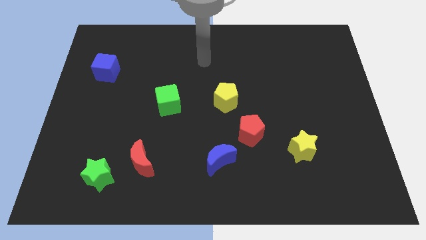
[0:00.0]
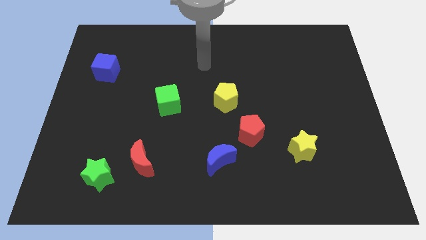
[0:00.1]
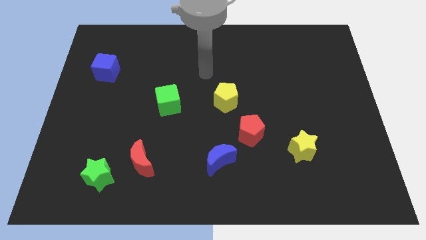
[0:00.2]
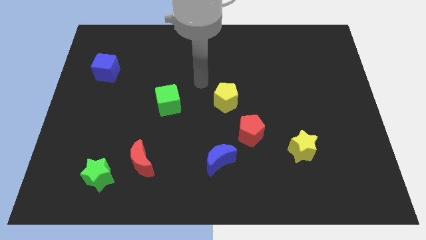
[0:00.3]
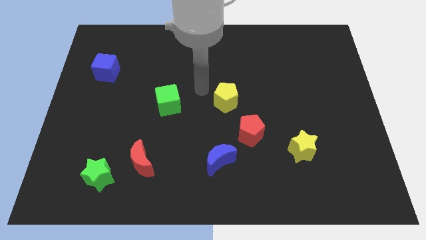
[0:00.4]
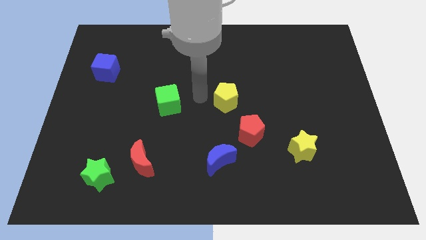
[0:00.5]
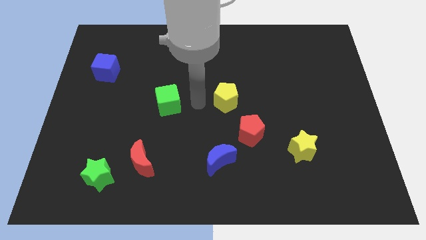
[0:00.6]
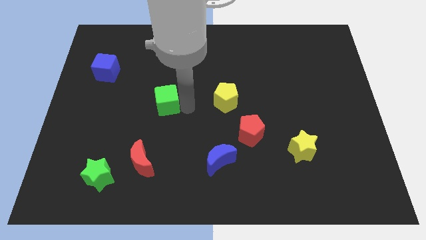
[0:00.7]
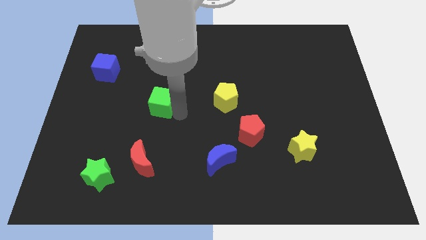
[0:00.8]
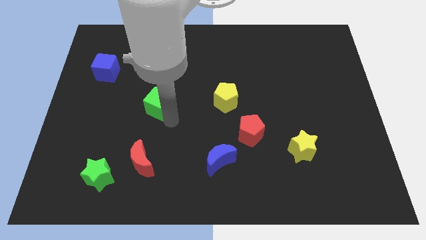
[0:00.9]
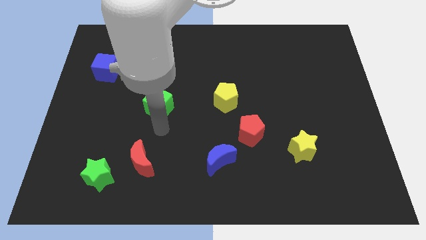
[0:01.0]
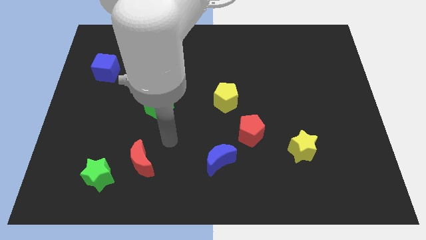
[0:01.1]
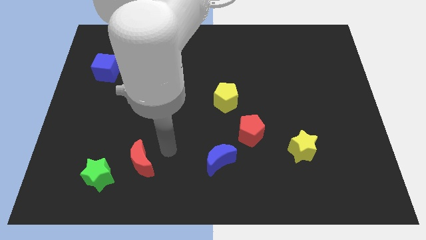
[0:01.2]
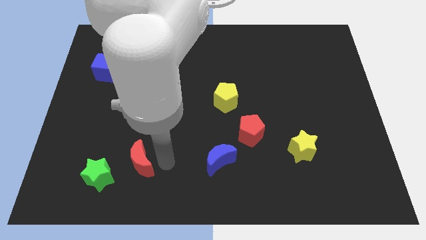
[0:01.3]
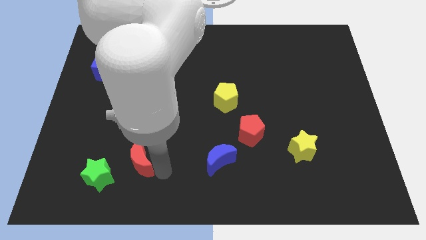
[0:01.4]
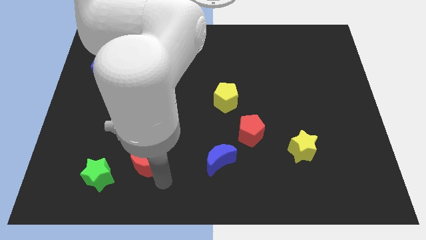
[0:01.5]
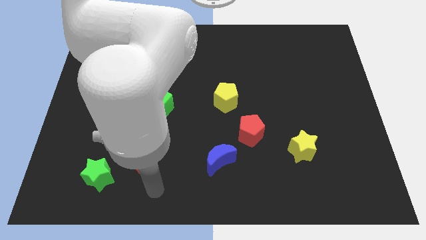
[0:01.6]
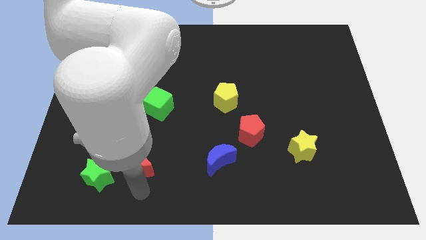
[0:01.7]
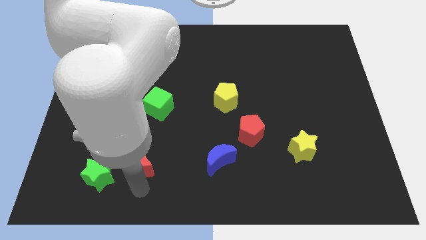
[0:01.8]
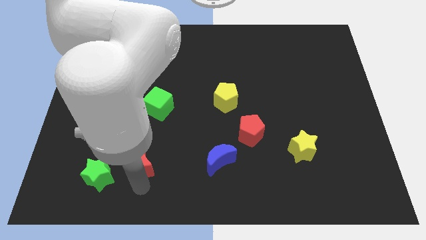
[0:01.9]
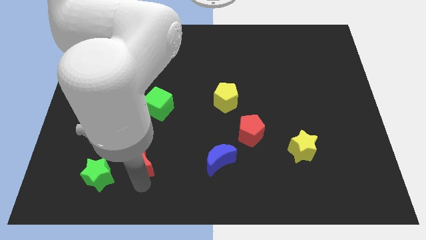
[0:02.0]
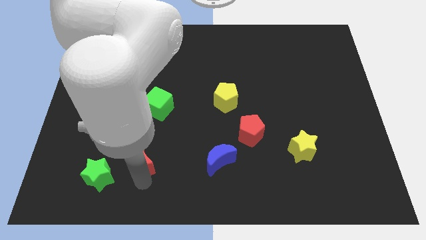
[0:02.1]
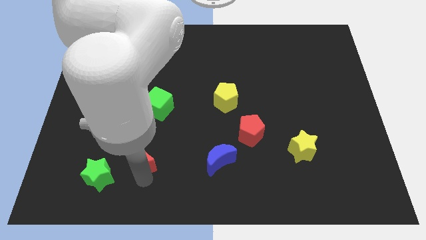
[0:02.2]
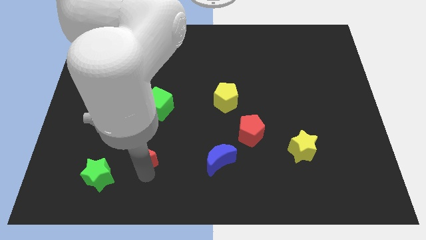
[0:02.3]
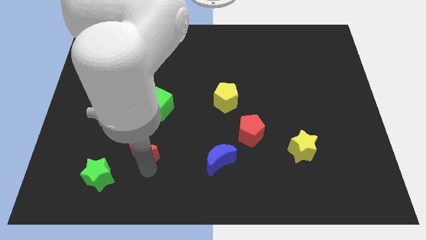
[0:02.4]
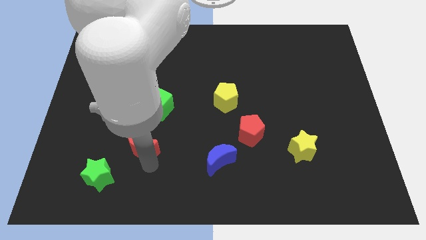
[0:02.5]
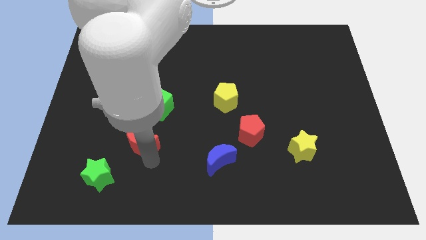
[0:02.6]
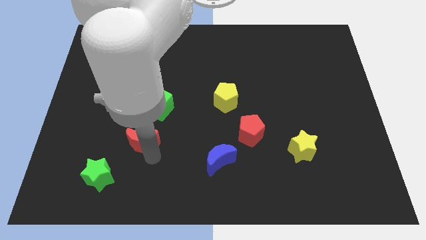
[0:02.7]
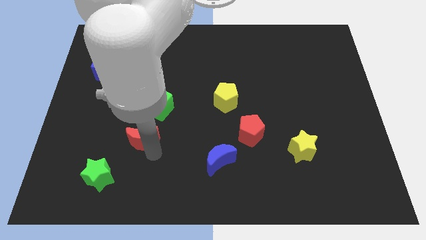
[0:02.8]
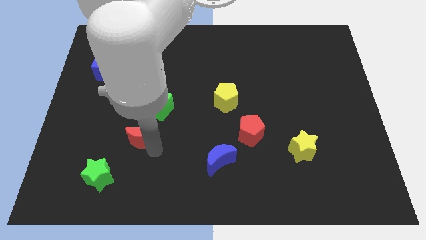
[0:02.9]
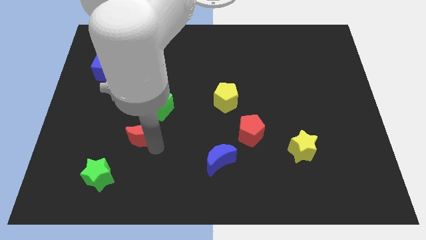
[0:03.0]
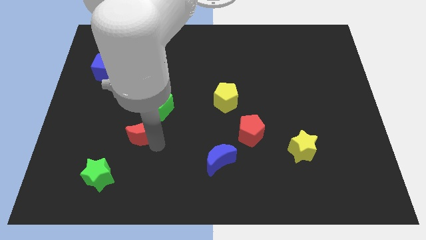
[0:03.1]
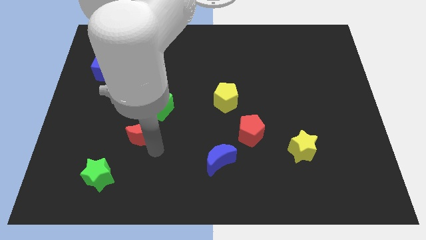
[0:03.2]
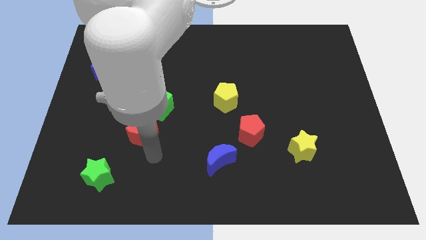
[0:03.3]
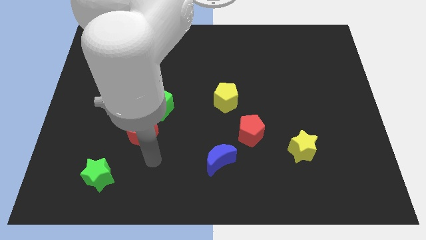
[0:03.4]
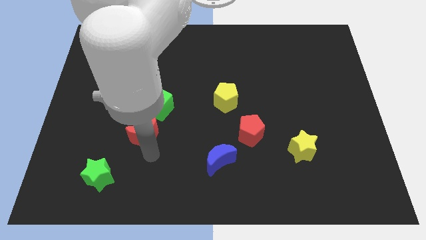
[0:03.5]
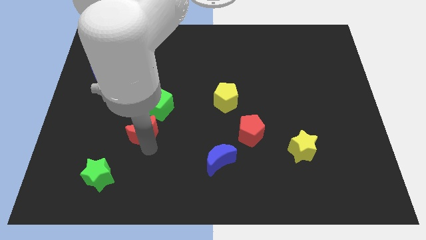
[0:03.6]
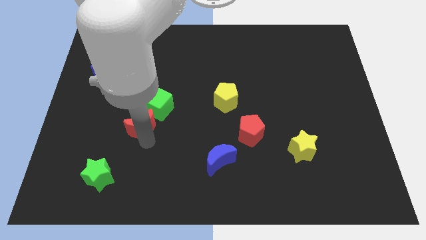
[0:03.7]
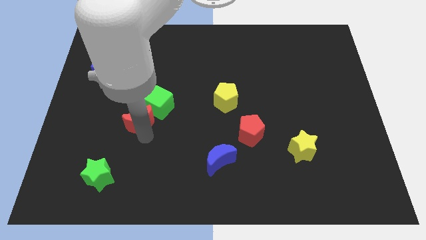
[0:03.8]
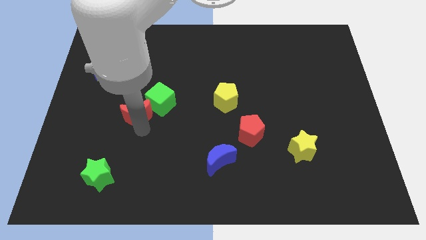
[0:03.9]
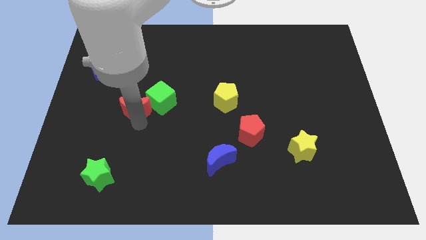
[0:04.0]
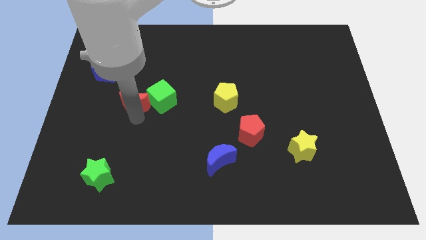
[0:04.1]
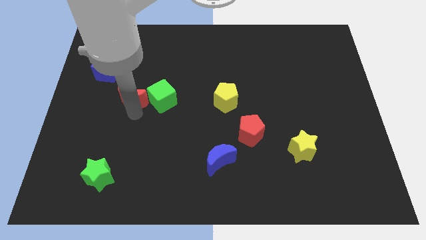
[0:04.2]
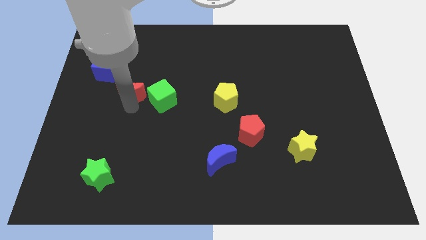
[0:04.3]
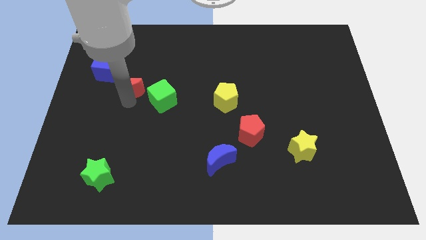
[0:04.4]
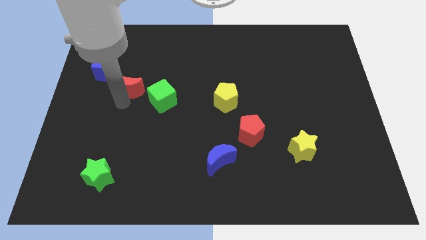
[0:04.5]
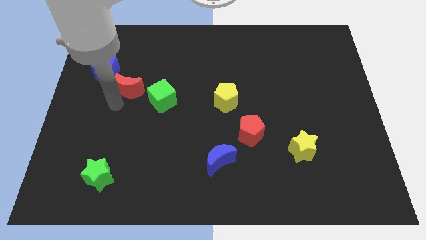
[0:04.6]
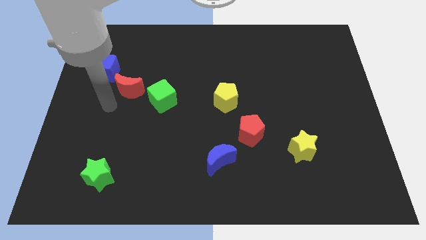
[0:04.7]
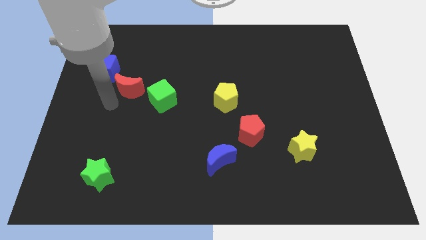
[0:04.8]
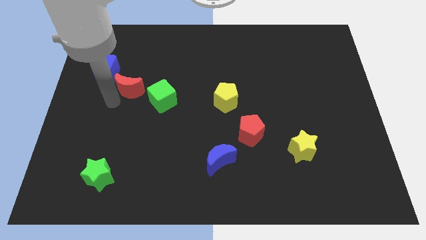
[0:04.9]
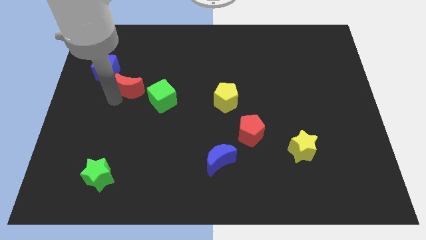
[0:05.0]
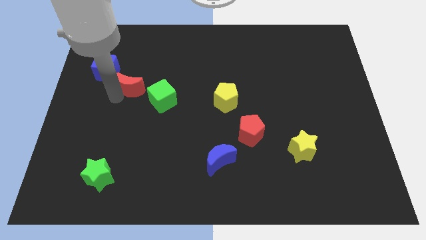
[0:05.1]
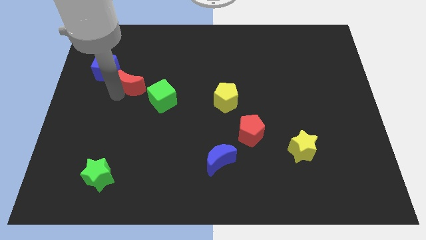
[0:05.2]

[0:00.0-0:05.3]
slide the red moon upwards

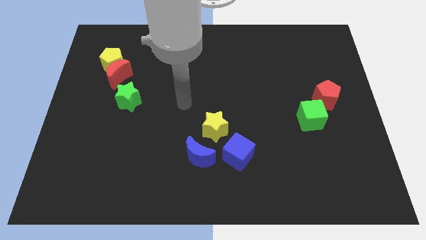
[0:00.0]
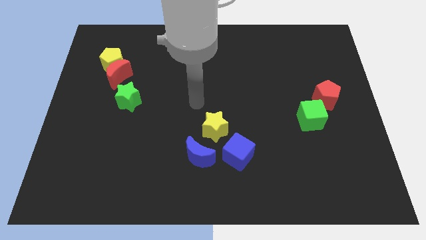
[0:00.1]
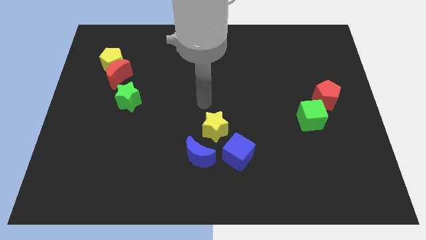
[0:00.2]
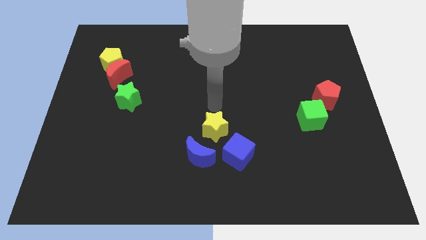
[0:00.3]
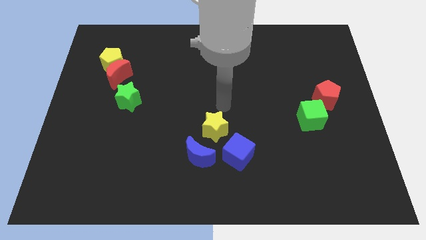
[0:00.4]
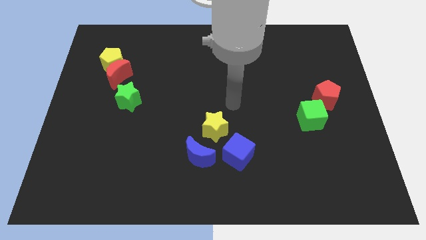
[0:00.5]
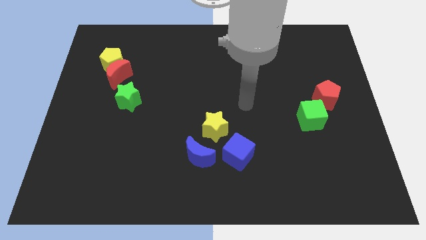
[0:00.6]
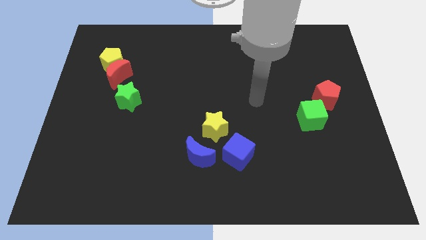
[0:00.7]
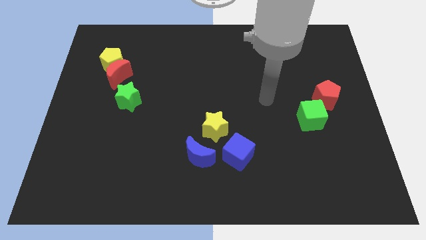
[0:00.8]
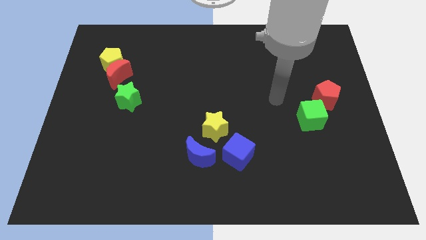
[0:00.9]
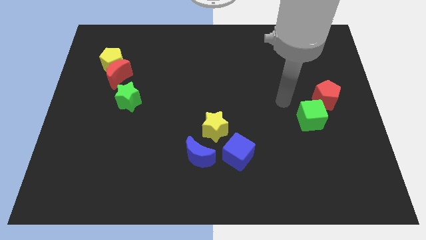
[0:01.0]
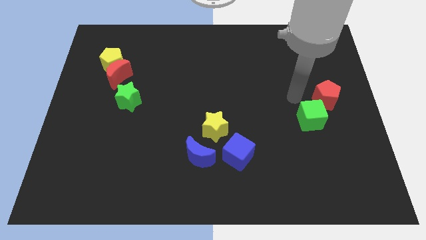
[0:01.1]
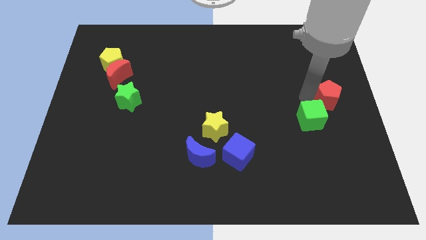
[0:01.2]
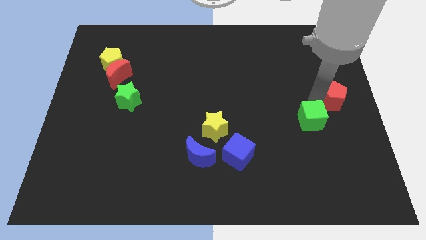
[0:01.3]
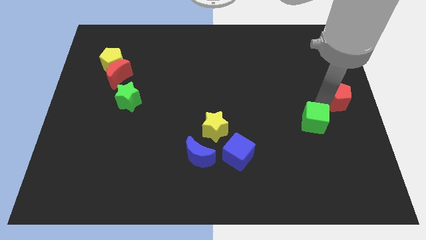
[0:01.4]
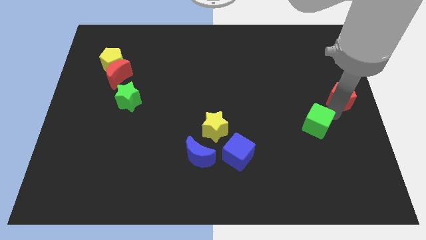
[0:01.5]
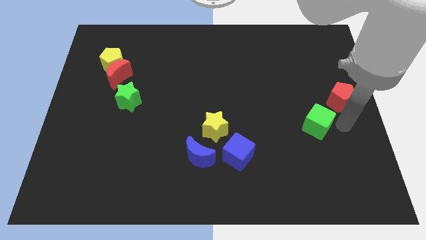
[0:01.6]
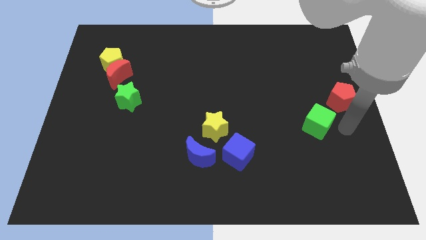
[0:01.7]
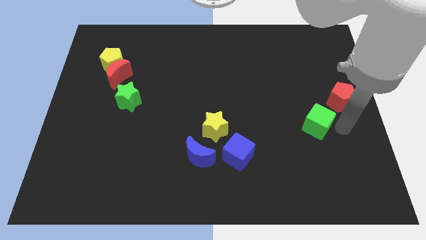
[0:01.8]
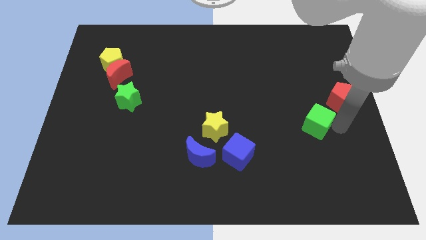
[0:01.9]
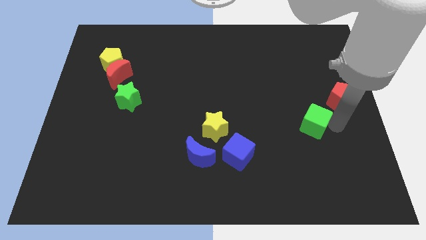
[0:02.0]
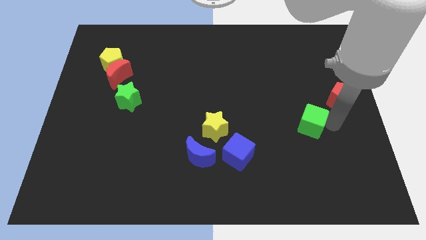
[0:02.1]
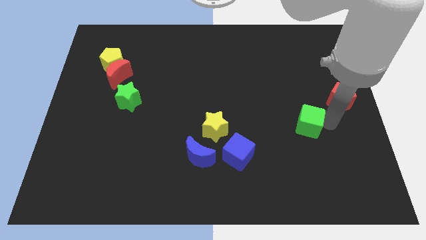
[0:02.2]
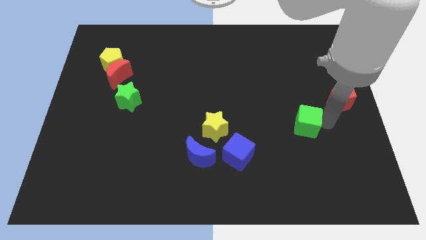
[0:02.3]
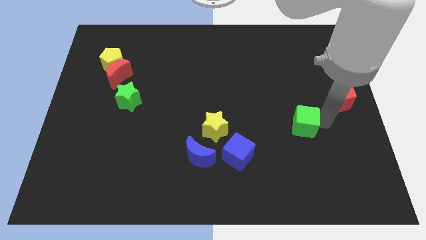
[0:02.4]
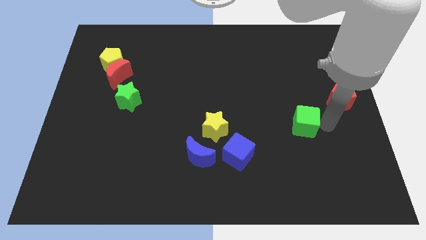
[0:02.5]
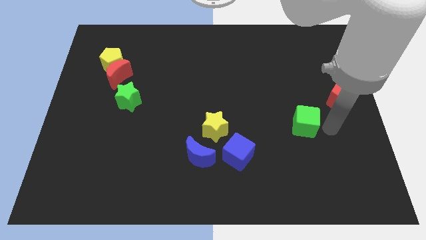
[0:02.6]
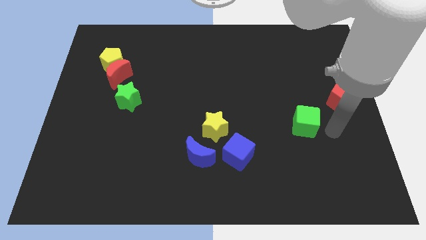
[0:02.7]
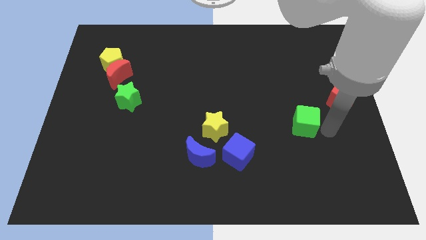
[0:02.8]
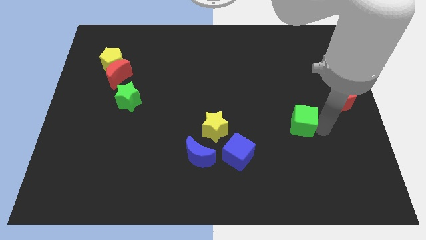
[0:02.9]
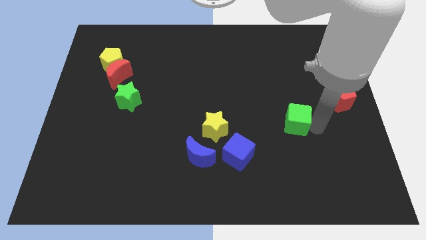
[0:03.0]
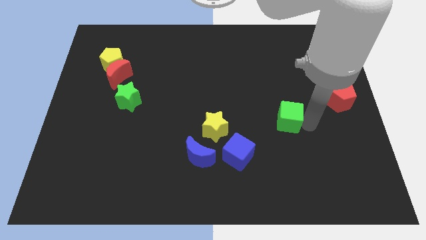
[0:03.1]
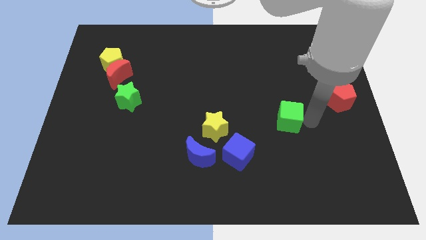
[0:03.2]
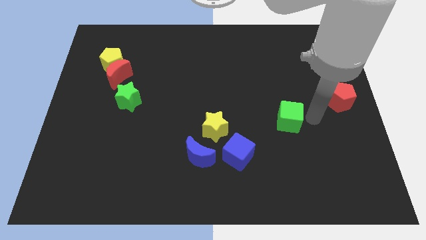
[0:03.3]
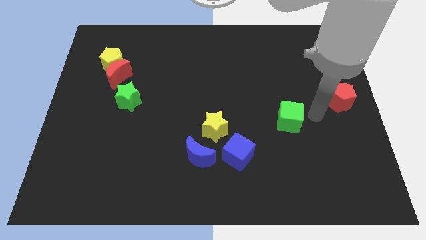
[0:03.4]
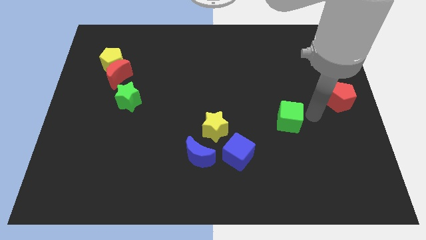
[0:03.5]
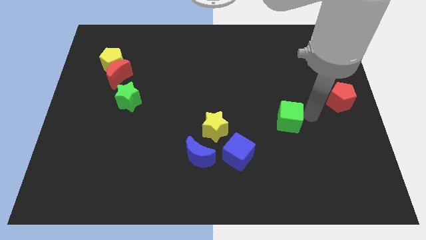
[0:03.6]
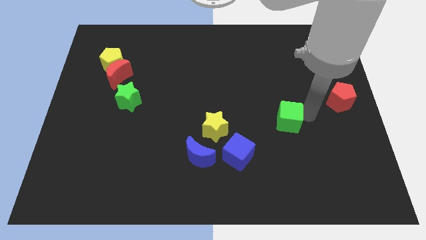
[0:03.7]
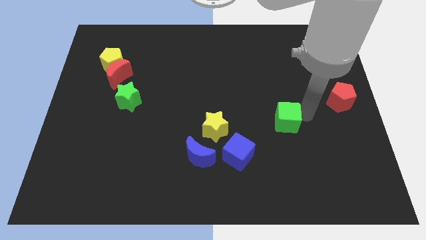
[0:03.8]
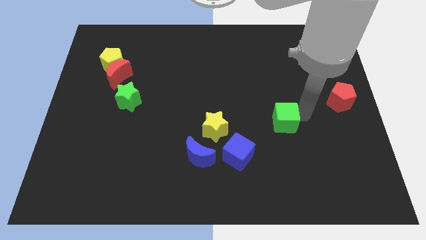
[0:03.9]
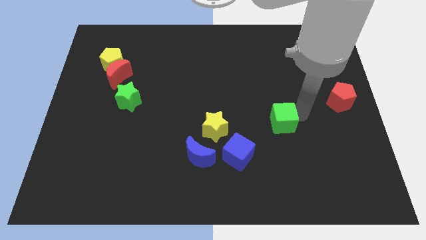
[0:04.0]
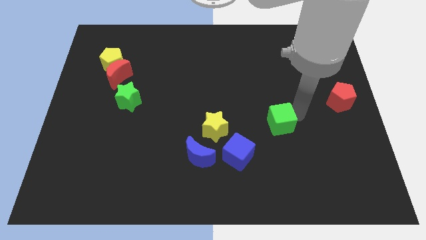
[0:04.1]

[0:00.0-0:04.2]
move the green cube somewhat to the left
